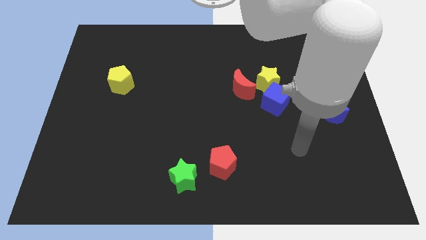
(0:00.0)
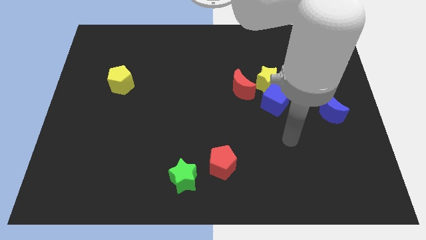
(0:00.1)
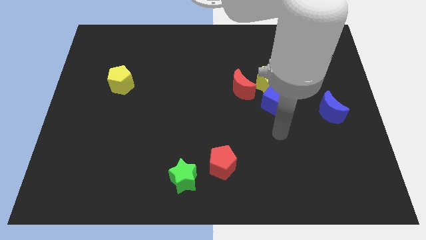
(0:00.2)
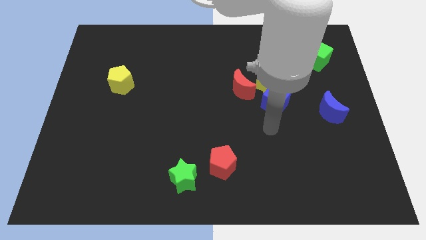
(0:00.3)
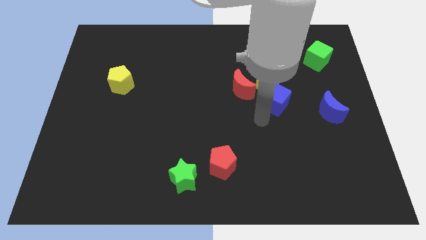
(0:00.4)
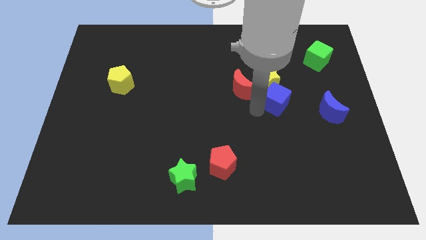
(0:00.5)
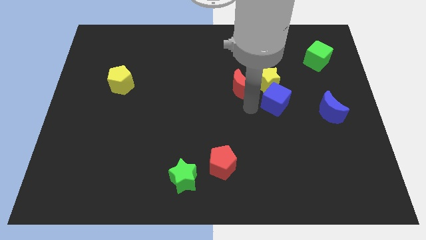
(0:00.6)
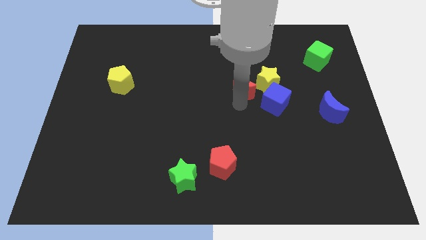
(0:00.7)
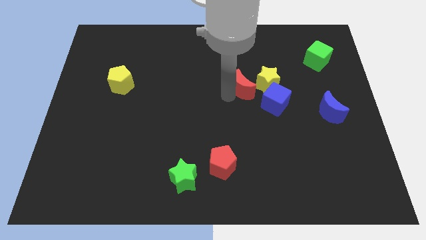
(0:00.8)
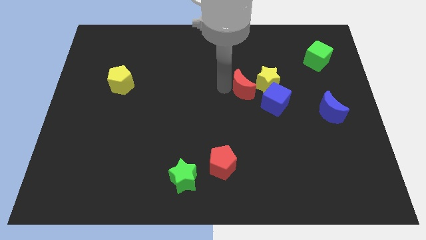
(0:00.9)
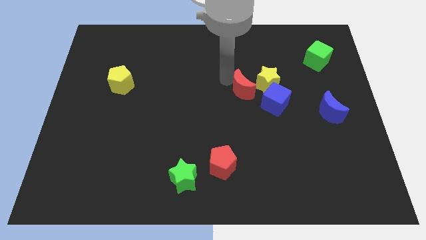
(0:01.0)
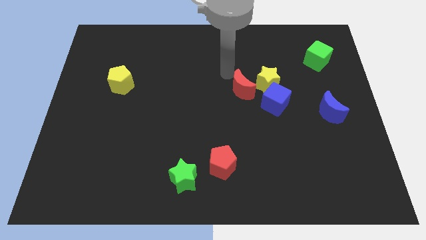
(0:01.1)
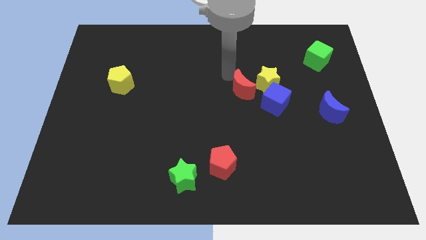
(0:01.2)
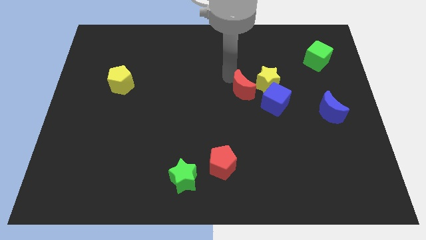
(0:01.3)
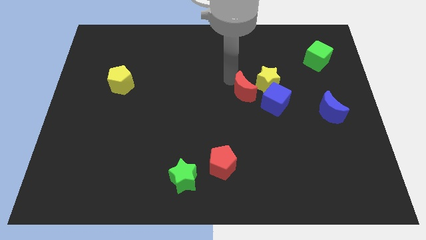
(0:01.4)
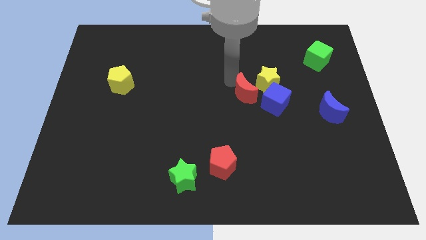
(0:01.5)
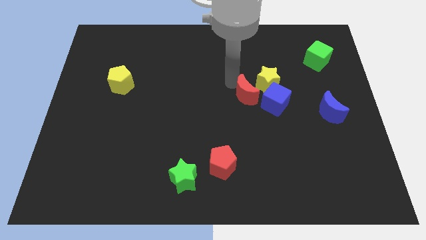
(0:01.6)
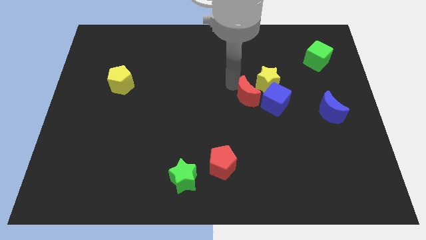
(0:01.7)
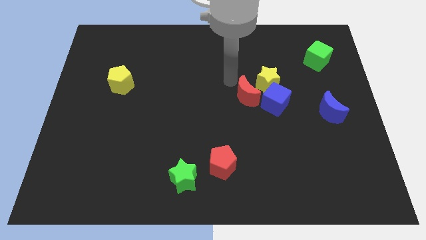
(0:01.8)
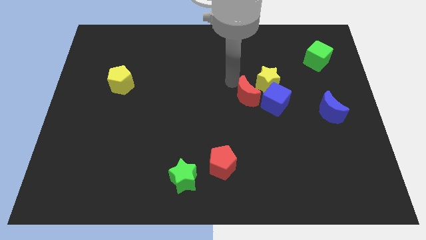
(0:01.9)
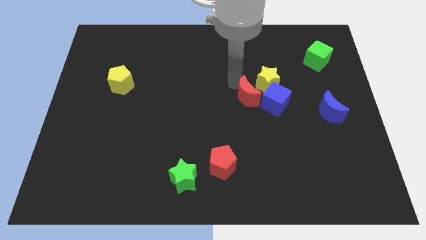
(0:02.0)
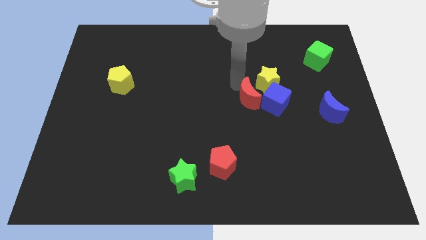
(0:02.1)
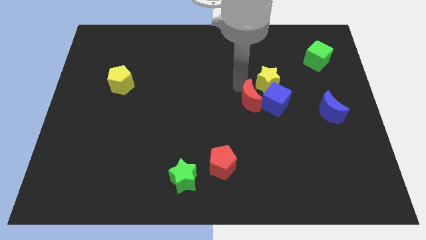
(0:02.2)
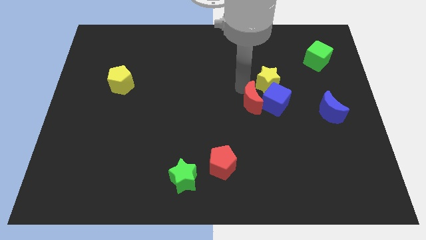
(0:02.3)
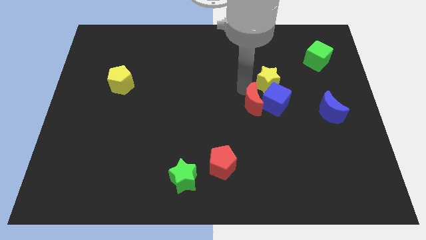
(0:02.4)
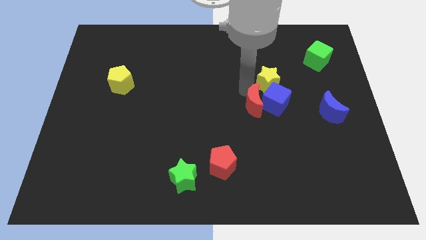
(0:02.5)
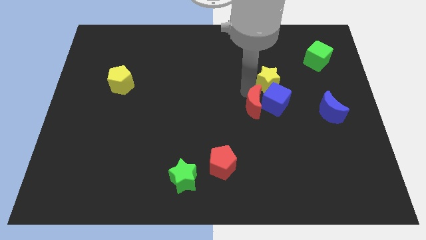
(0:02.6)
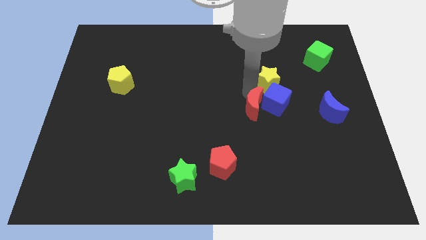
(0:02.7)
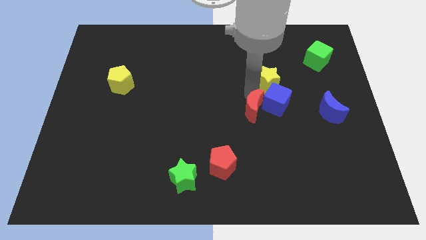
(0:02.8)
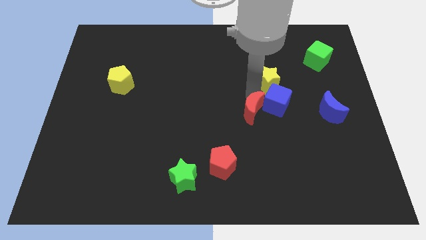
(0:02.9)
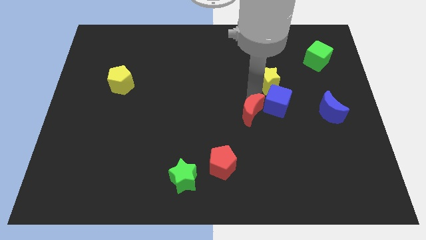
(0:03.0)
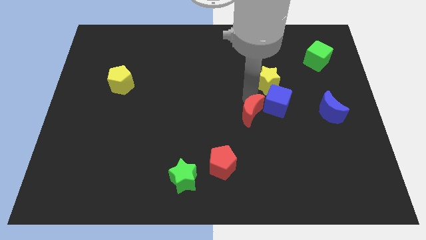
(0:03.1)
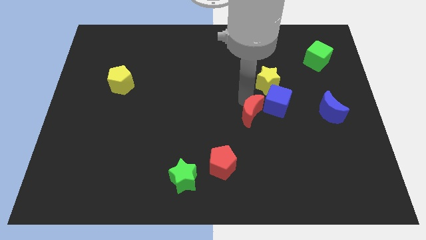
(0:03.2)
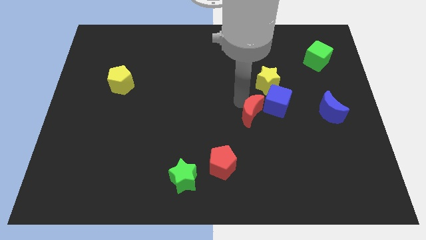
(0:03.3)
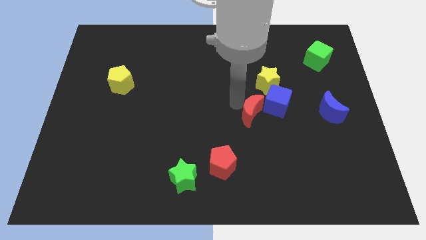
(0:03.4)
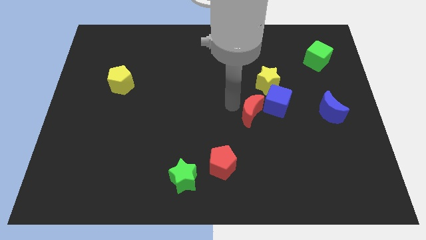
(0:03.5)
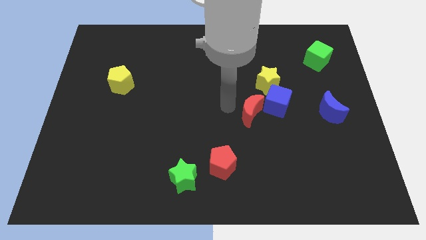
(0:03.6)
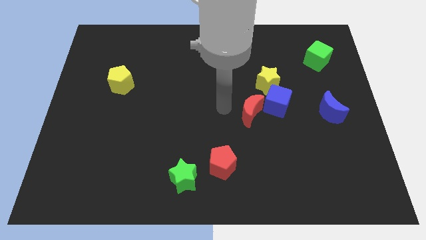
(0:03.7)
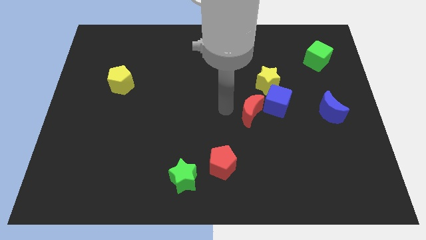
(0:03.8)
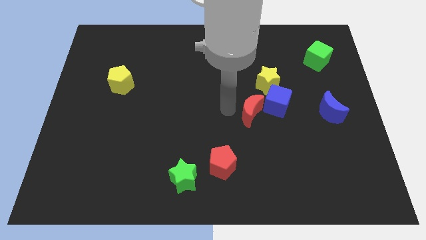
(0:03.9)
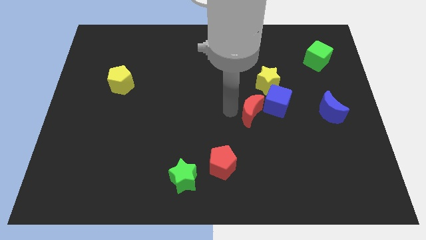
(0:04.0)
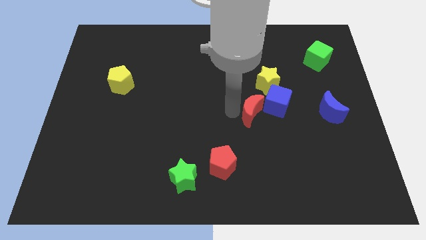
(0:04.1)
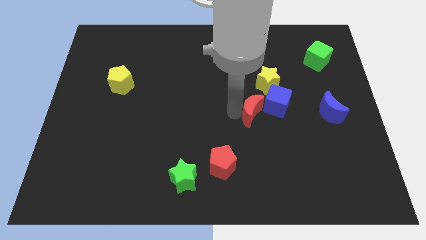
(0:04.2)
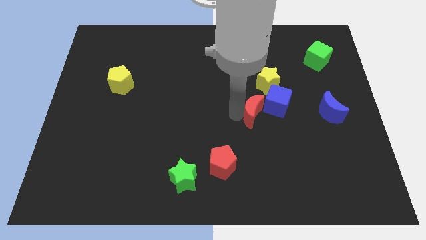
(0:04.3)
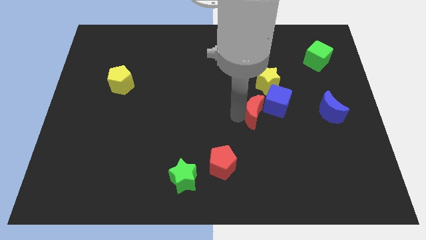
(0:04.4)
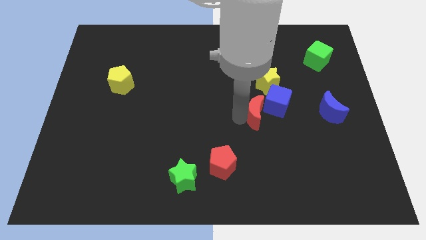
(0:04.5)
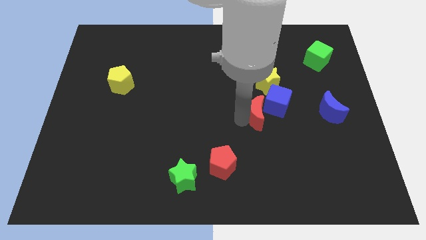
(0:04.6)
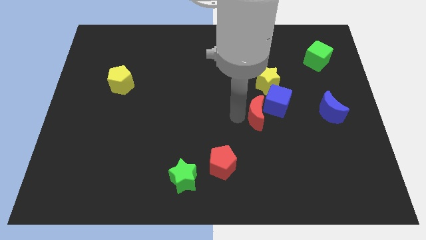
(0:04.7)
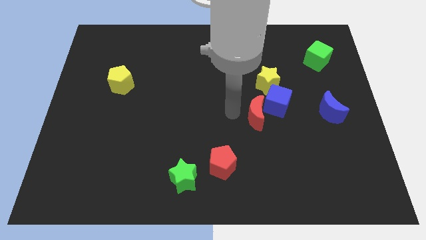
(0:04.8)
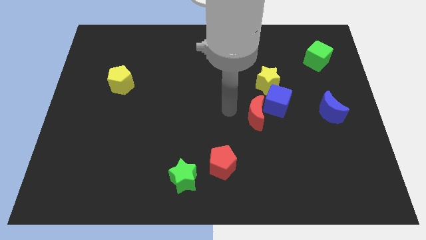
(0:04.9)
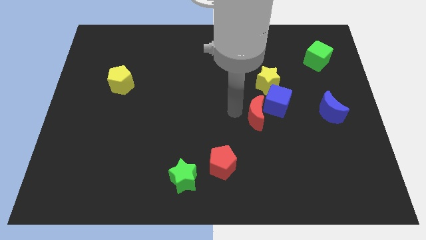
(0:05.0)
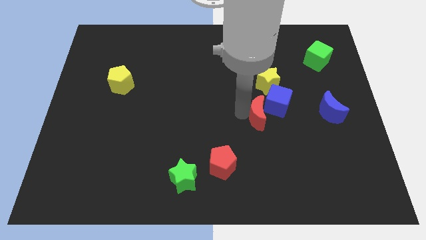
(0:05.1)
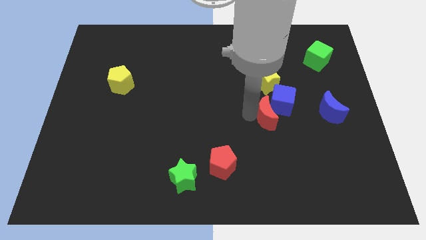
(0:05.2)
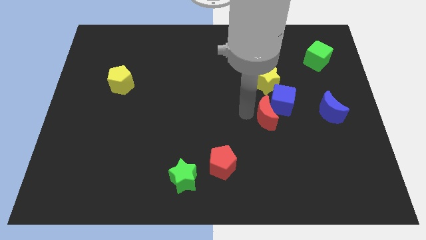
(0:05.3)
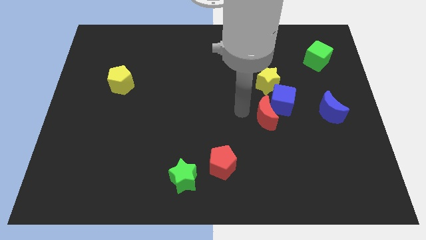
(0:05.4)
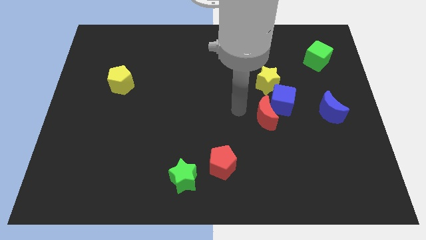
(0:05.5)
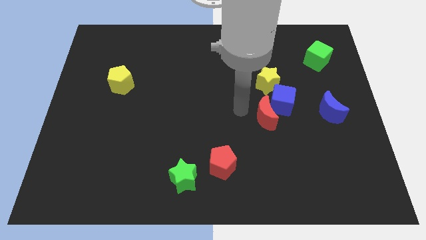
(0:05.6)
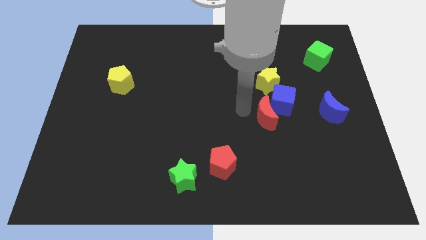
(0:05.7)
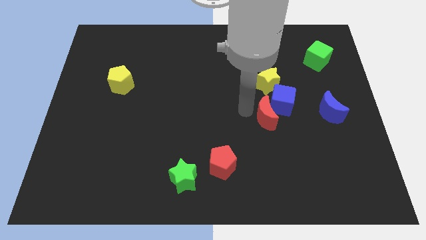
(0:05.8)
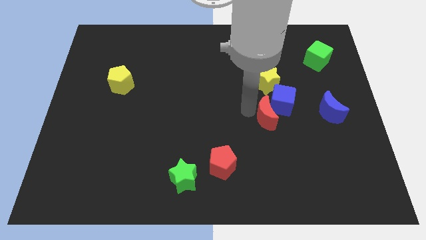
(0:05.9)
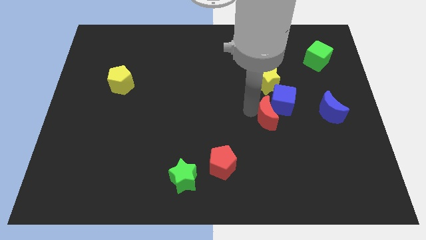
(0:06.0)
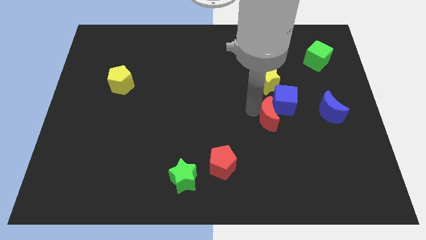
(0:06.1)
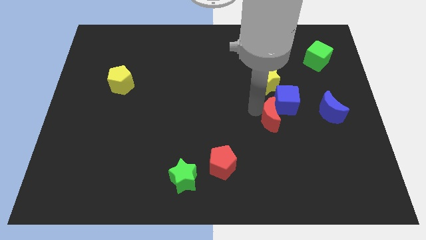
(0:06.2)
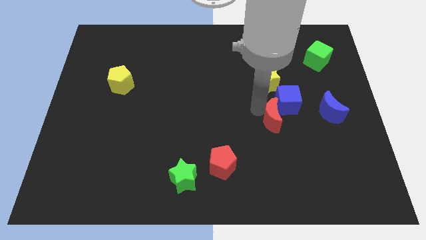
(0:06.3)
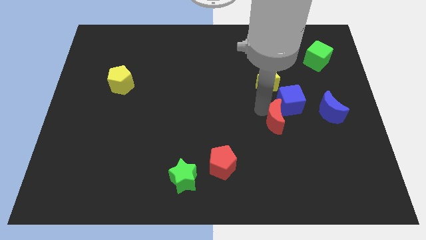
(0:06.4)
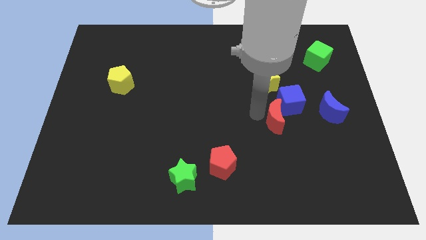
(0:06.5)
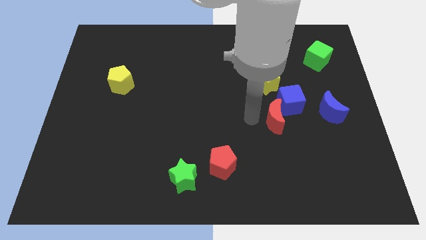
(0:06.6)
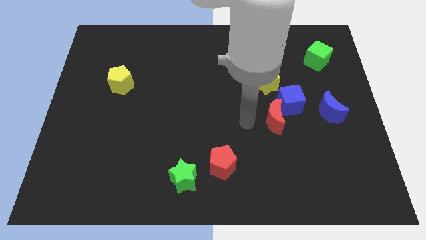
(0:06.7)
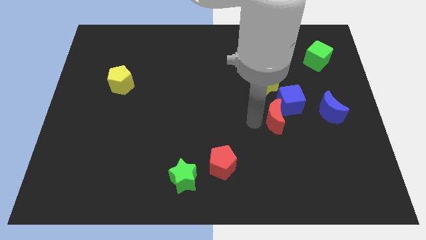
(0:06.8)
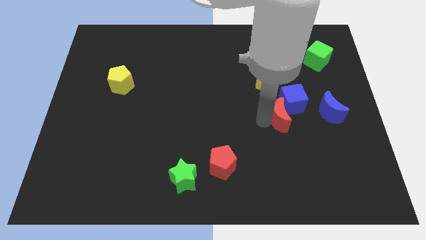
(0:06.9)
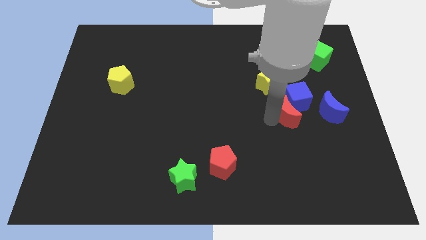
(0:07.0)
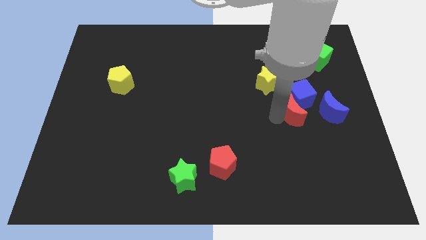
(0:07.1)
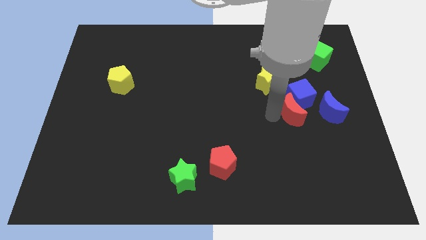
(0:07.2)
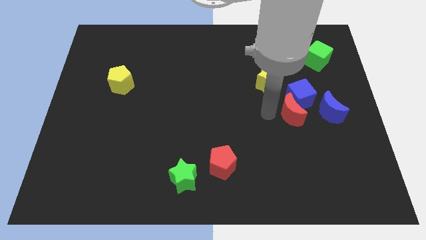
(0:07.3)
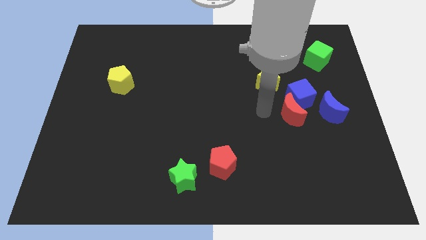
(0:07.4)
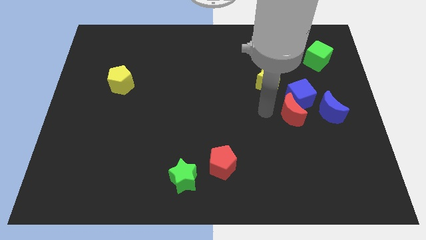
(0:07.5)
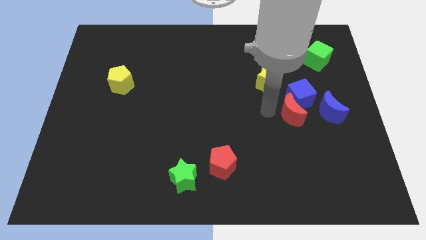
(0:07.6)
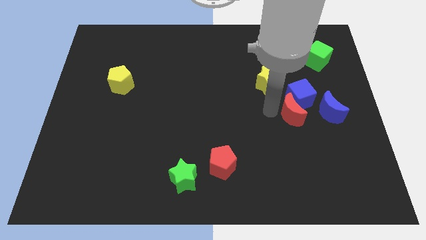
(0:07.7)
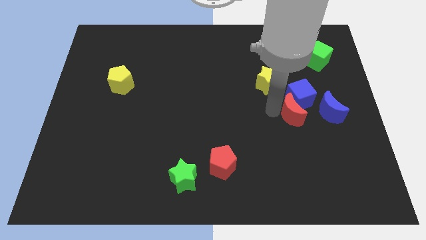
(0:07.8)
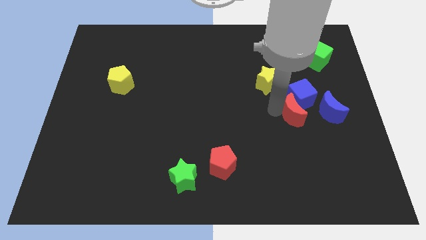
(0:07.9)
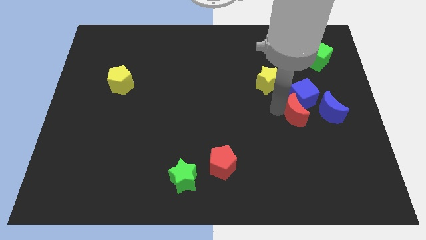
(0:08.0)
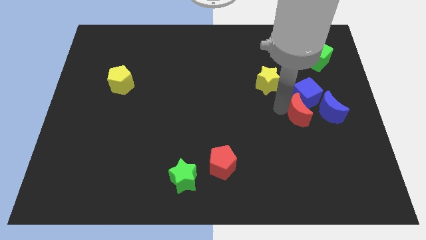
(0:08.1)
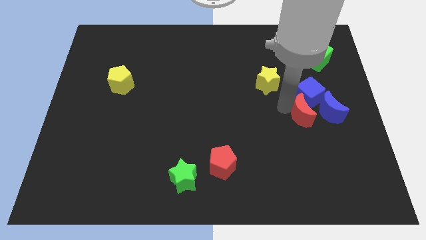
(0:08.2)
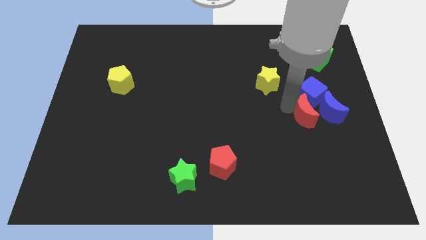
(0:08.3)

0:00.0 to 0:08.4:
push the red moon to the blue moon
